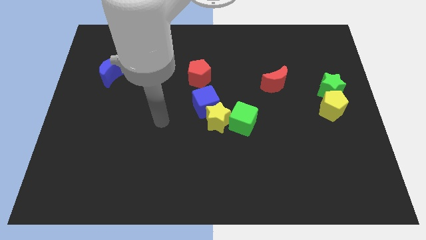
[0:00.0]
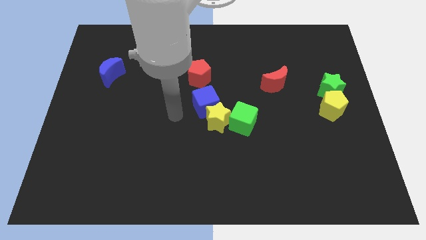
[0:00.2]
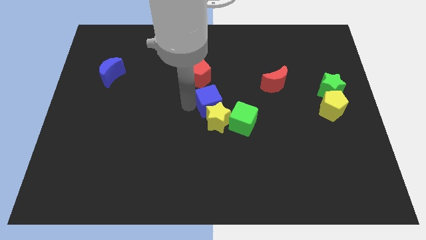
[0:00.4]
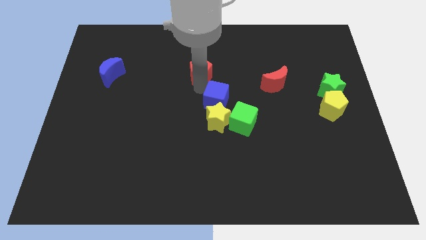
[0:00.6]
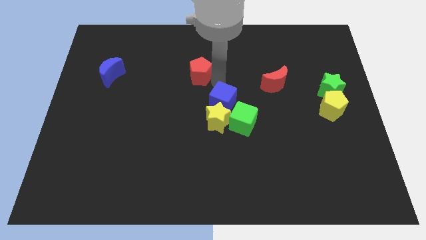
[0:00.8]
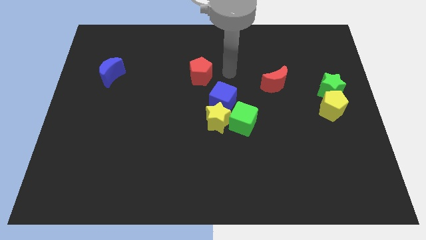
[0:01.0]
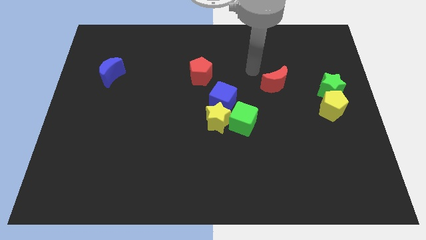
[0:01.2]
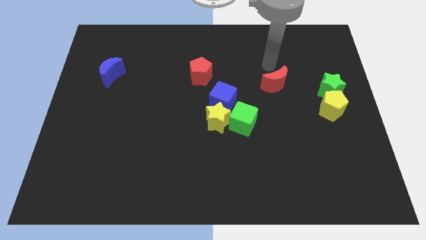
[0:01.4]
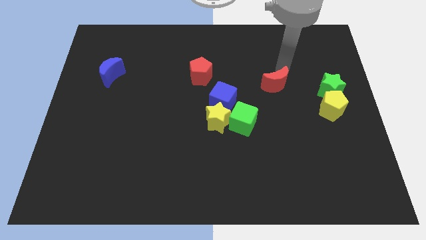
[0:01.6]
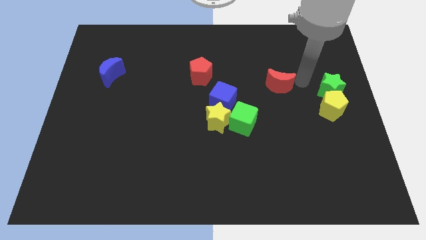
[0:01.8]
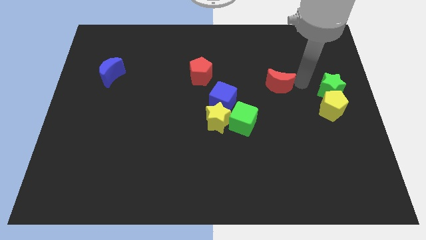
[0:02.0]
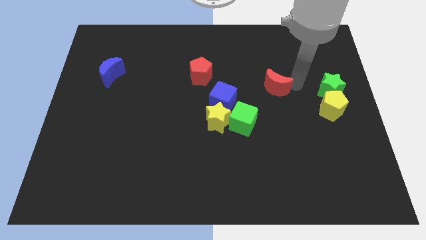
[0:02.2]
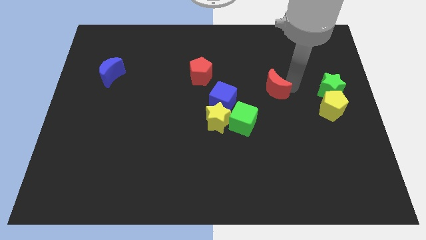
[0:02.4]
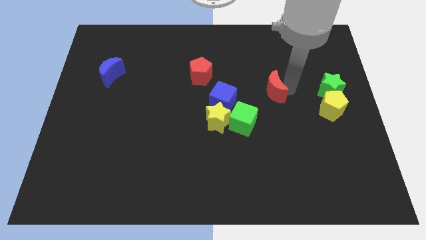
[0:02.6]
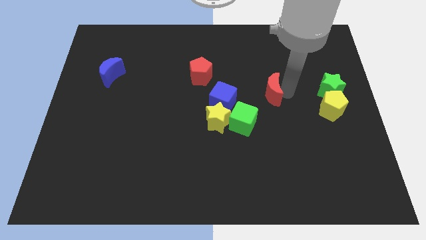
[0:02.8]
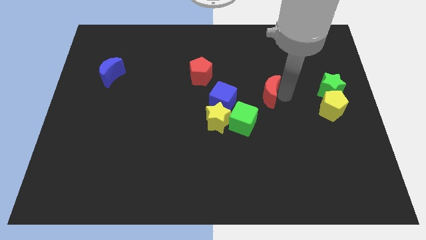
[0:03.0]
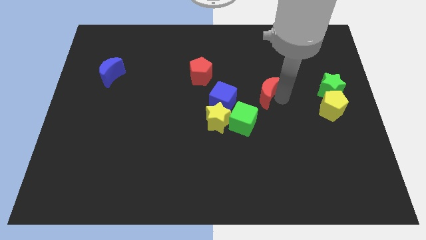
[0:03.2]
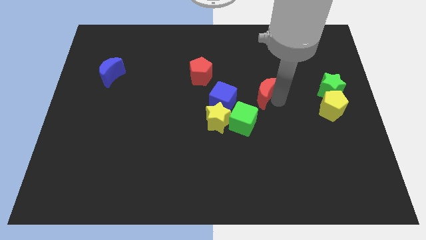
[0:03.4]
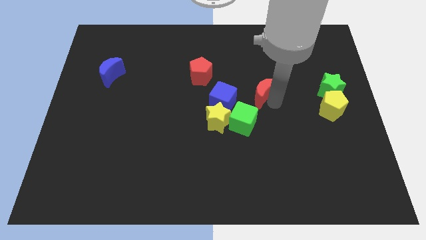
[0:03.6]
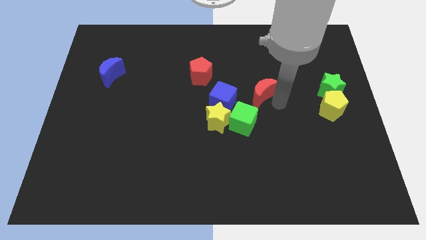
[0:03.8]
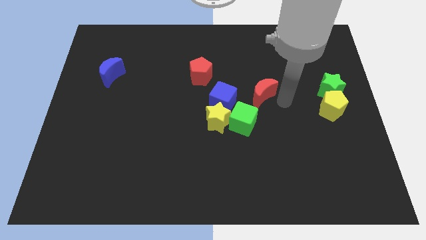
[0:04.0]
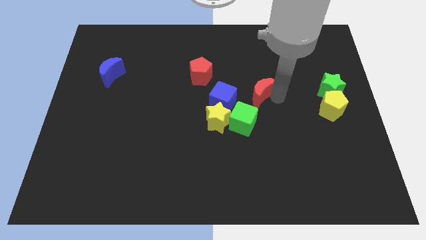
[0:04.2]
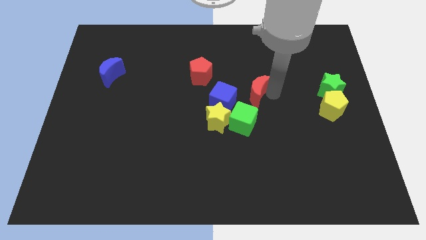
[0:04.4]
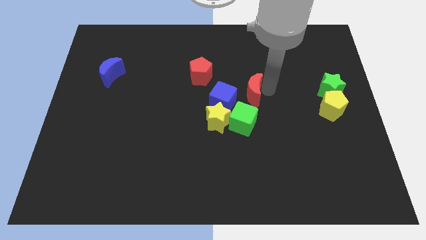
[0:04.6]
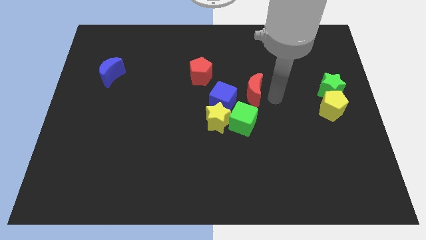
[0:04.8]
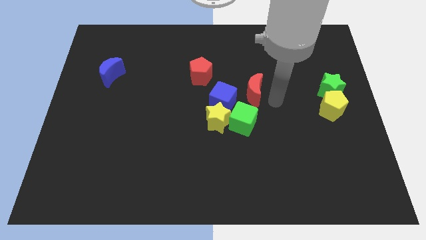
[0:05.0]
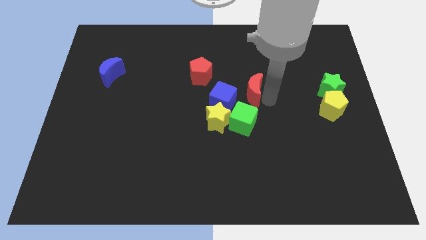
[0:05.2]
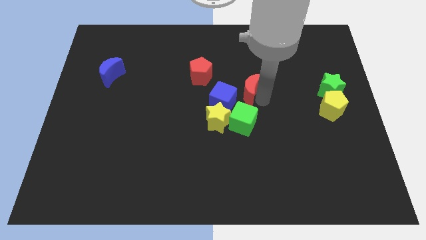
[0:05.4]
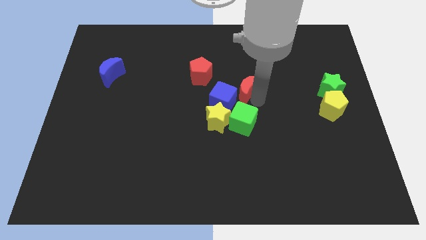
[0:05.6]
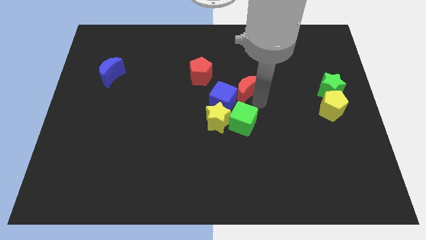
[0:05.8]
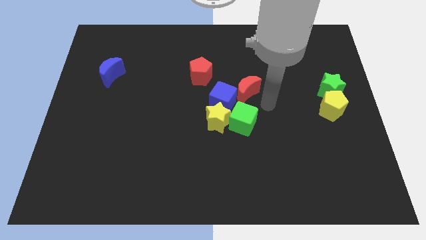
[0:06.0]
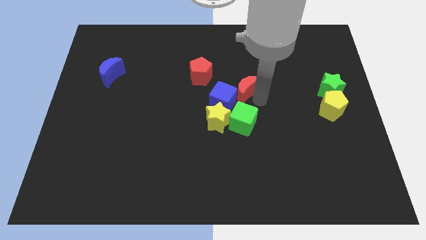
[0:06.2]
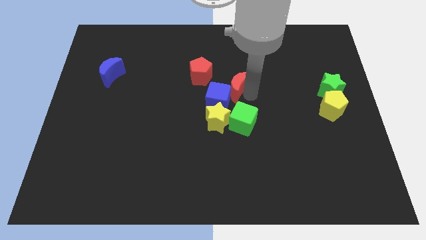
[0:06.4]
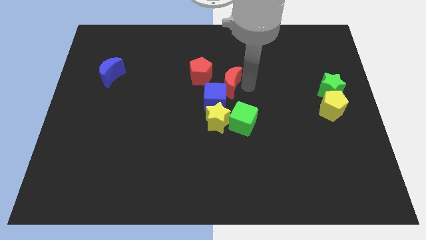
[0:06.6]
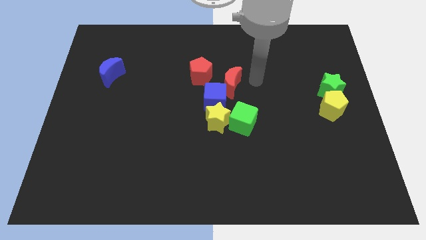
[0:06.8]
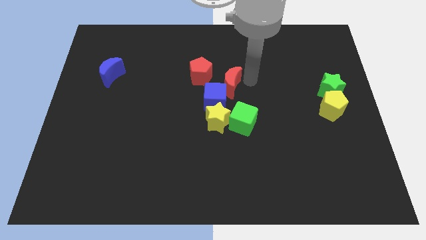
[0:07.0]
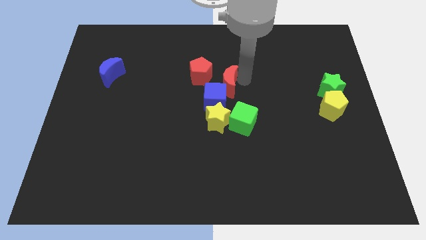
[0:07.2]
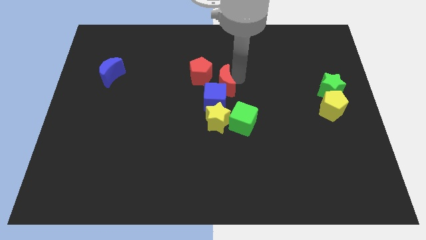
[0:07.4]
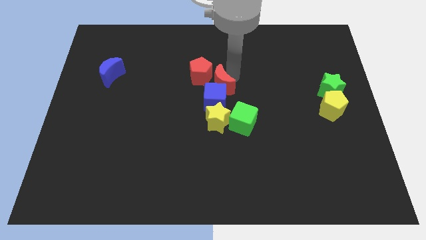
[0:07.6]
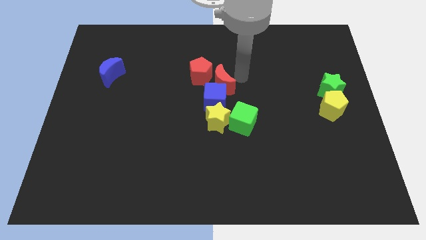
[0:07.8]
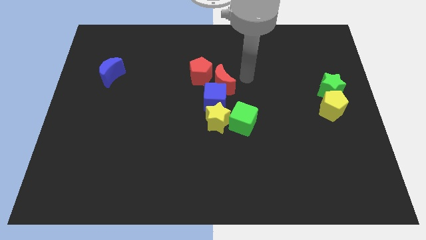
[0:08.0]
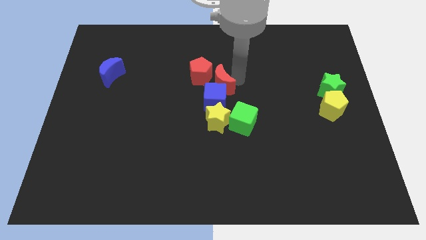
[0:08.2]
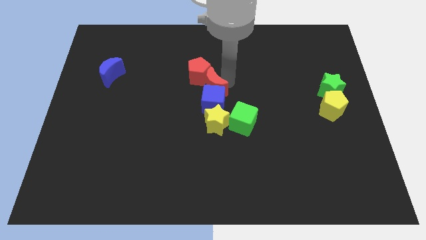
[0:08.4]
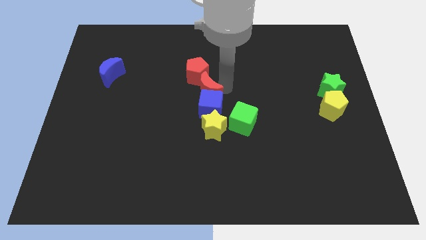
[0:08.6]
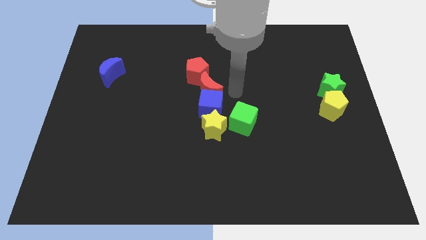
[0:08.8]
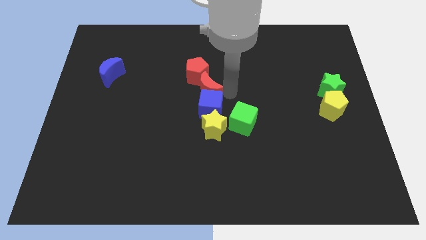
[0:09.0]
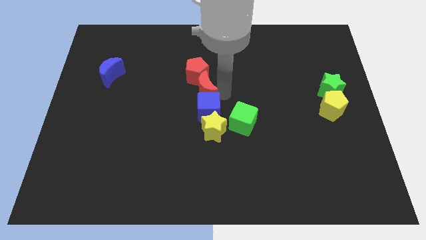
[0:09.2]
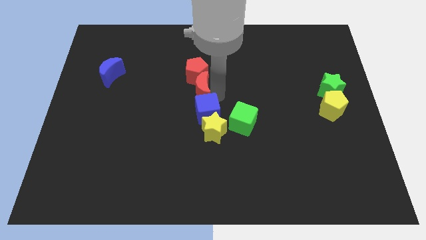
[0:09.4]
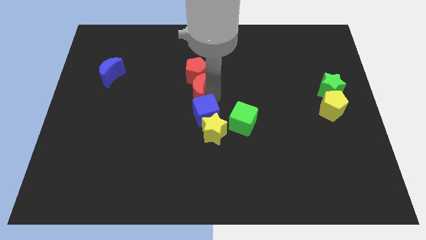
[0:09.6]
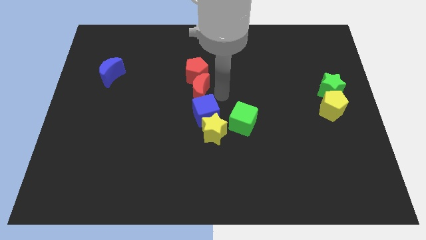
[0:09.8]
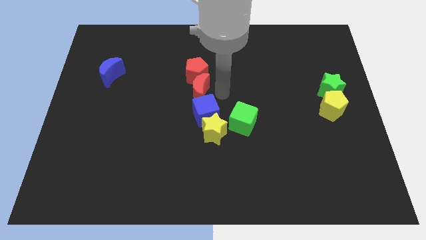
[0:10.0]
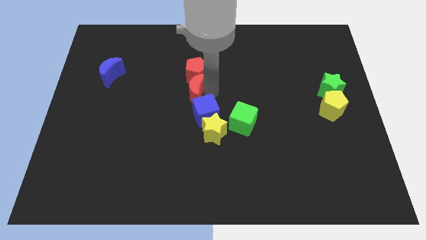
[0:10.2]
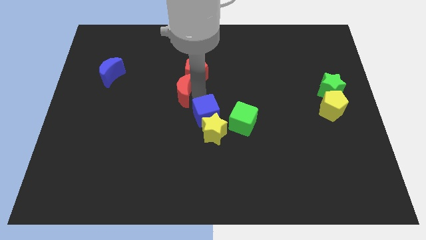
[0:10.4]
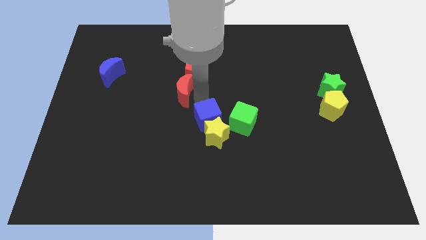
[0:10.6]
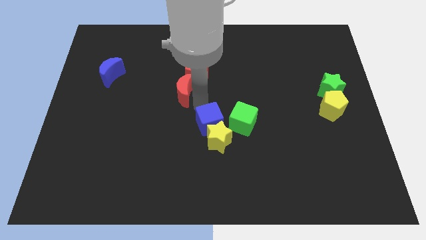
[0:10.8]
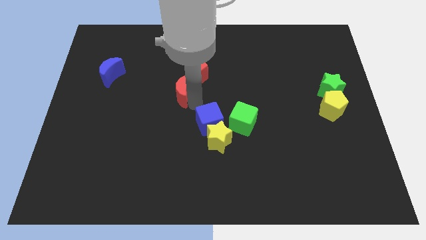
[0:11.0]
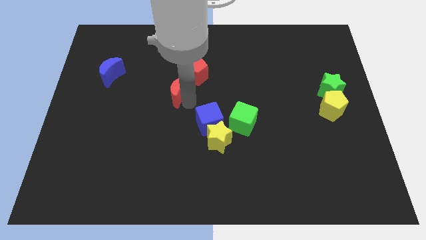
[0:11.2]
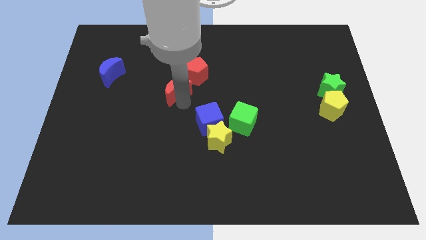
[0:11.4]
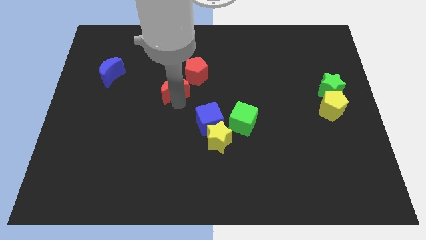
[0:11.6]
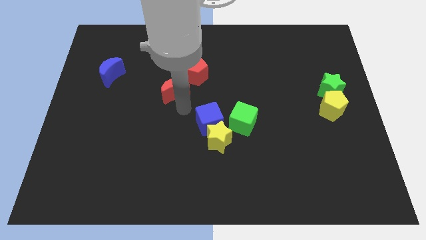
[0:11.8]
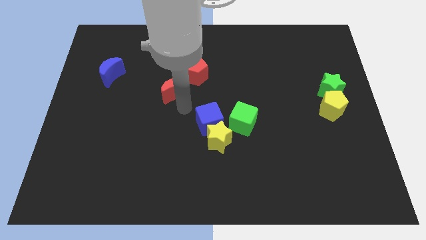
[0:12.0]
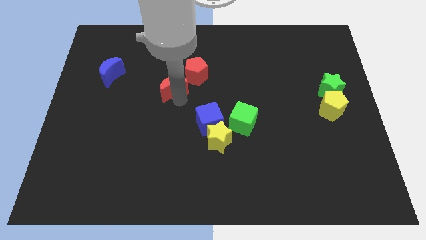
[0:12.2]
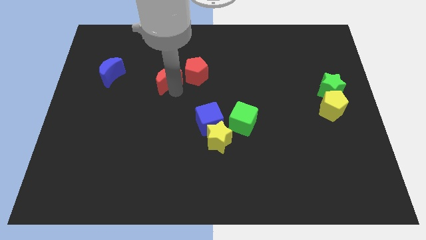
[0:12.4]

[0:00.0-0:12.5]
put the red moon just right of the blue moon

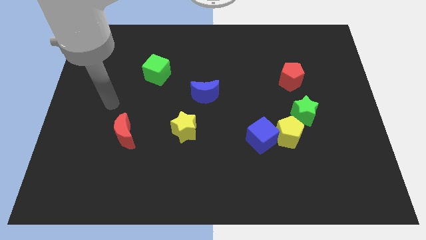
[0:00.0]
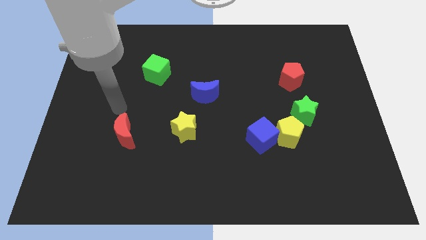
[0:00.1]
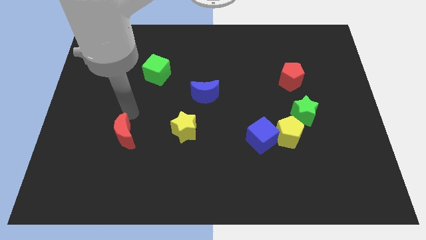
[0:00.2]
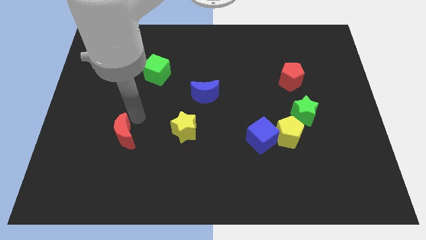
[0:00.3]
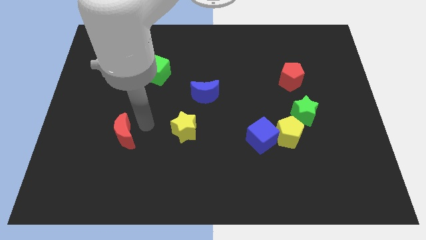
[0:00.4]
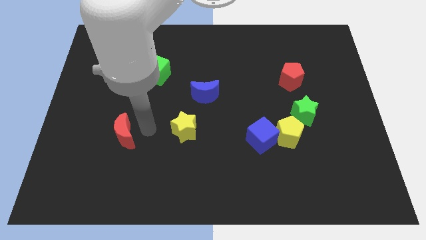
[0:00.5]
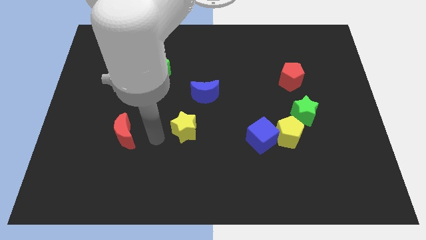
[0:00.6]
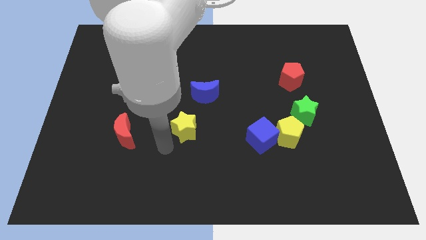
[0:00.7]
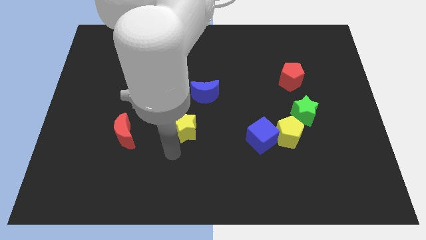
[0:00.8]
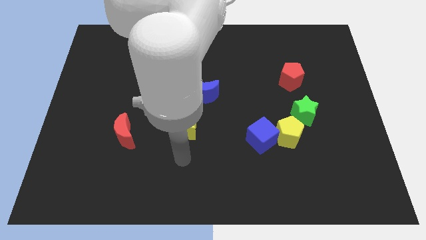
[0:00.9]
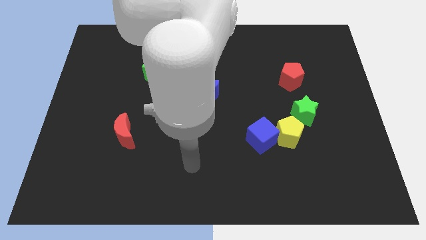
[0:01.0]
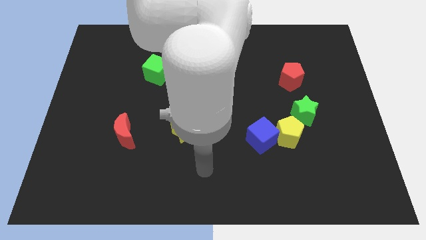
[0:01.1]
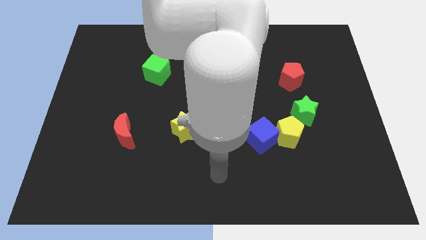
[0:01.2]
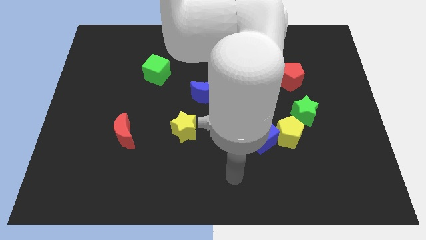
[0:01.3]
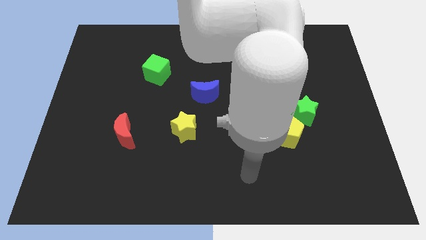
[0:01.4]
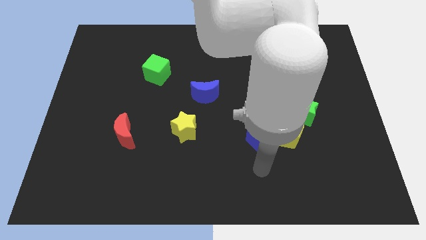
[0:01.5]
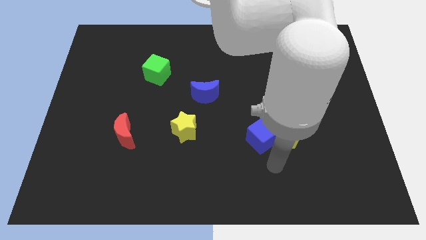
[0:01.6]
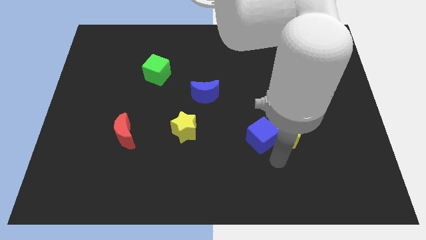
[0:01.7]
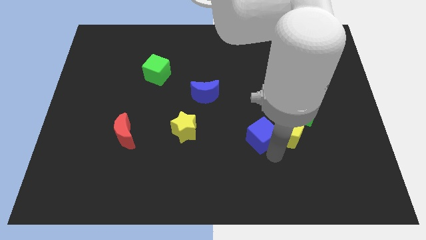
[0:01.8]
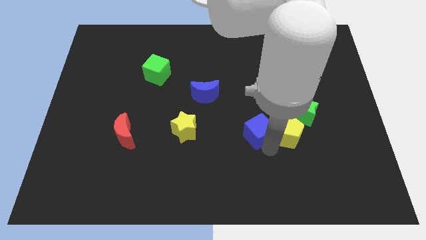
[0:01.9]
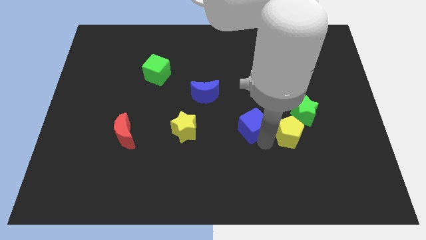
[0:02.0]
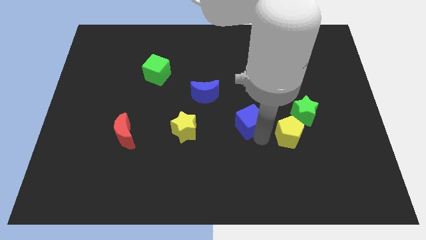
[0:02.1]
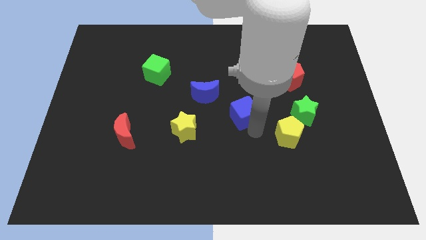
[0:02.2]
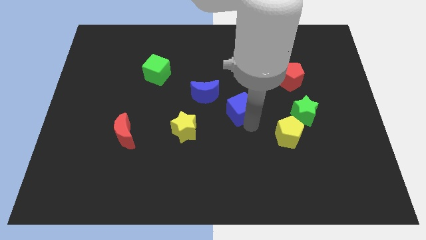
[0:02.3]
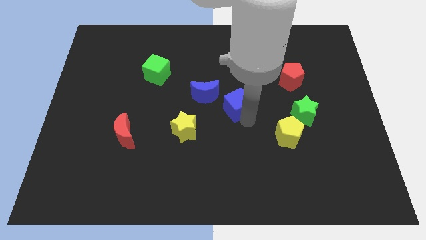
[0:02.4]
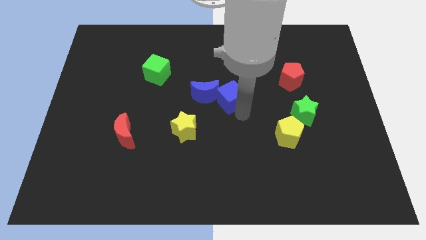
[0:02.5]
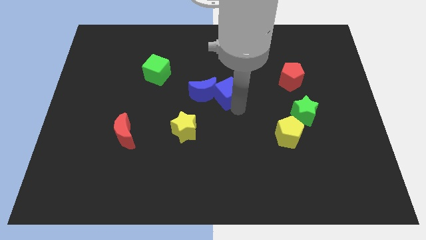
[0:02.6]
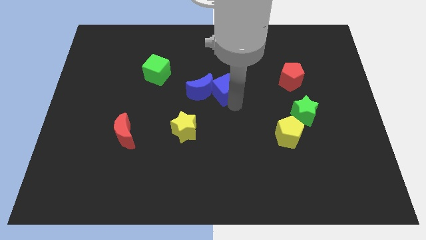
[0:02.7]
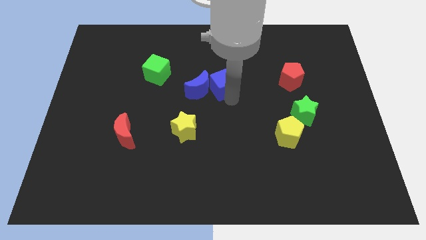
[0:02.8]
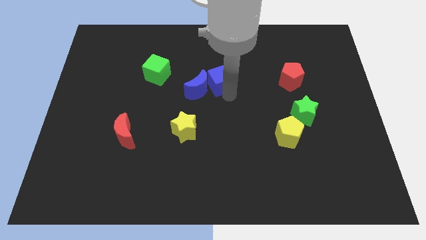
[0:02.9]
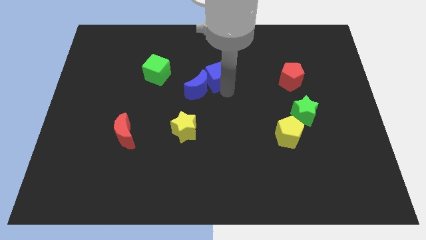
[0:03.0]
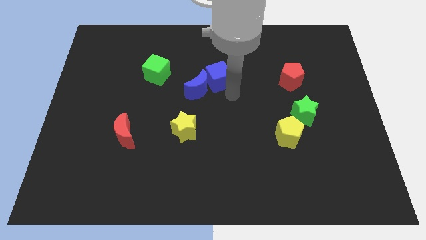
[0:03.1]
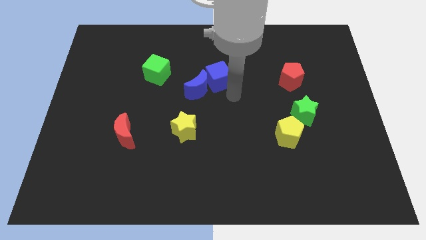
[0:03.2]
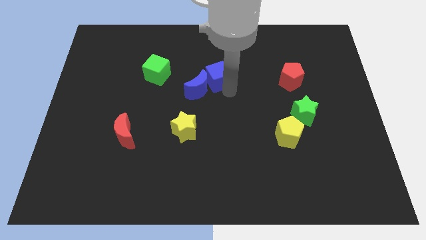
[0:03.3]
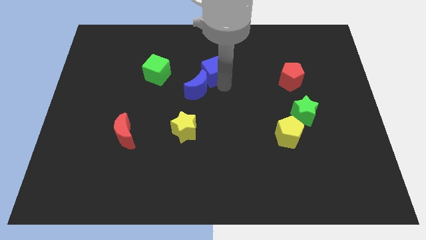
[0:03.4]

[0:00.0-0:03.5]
push the blue cube to the top of the blue moon
